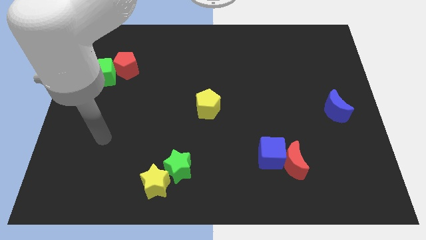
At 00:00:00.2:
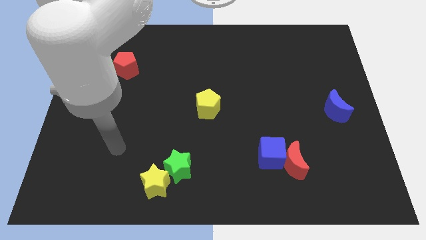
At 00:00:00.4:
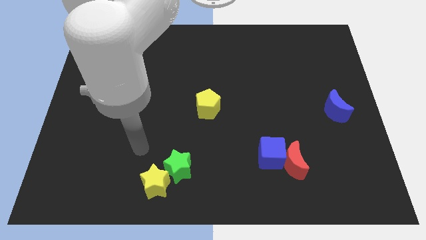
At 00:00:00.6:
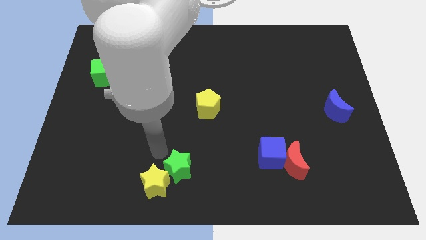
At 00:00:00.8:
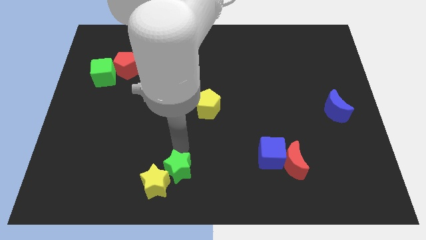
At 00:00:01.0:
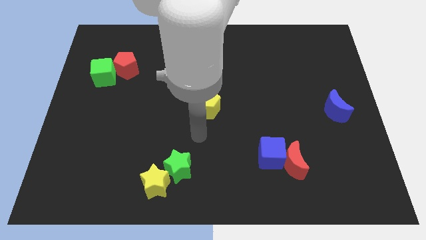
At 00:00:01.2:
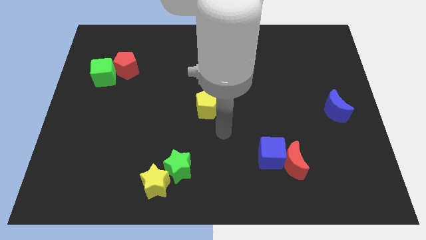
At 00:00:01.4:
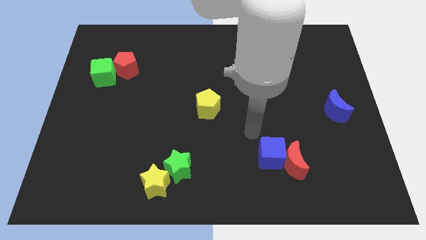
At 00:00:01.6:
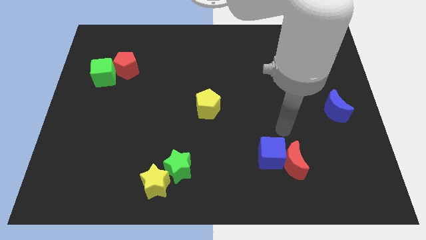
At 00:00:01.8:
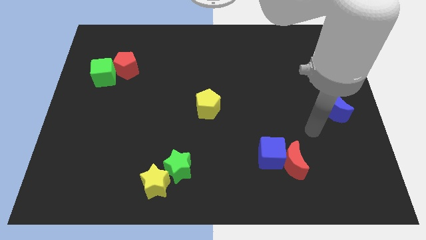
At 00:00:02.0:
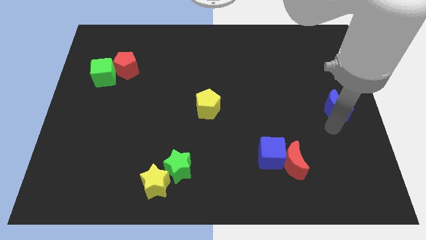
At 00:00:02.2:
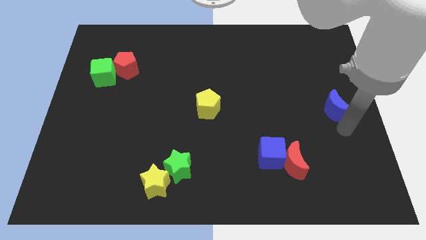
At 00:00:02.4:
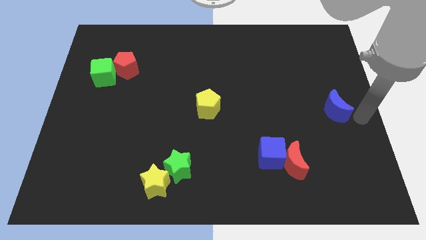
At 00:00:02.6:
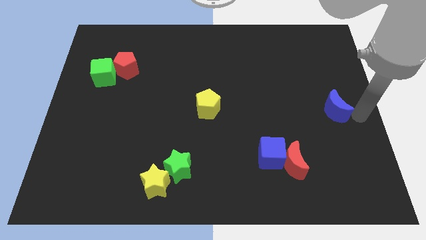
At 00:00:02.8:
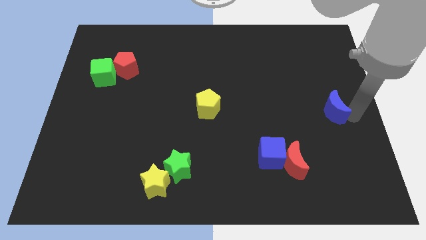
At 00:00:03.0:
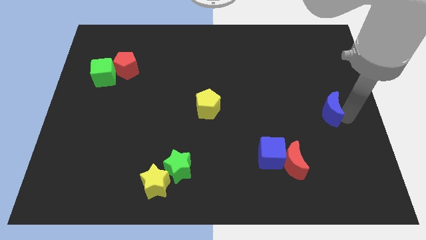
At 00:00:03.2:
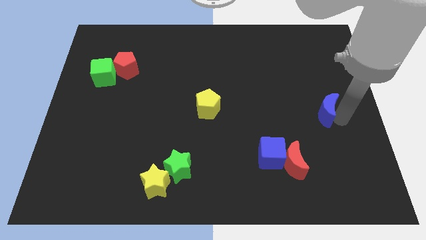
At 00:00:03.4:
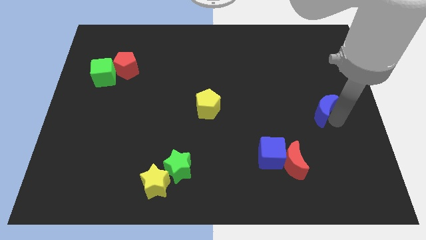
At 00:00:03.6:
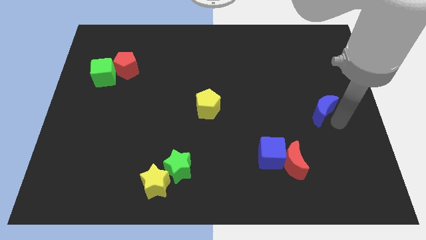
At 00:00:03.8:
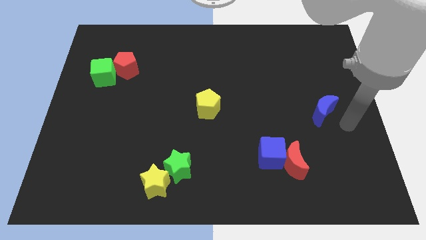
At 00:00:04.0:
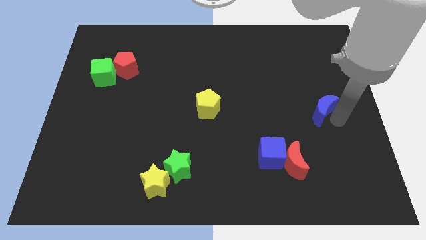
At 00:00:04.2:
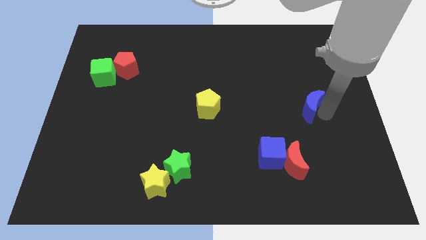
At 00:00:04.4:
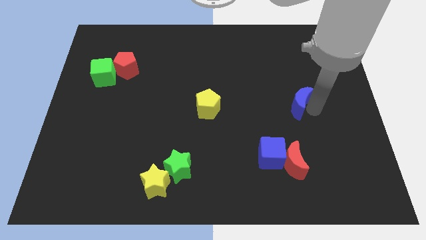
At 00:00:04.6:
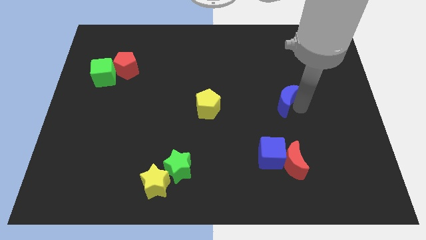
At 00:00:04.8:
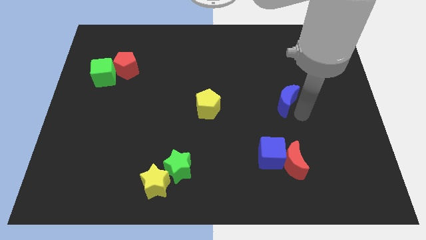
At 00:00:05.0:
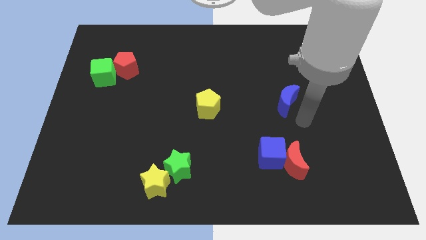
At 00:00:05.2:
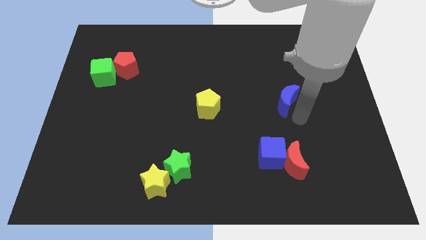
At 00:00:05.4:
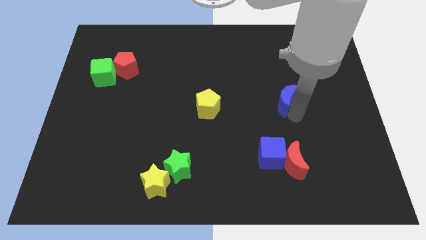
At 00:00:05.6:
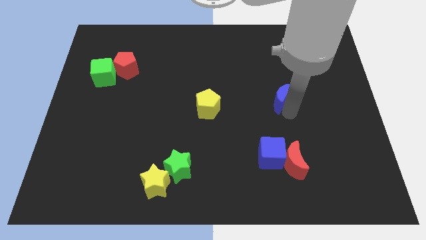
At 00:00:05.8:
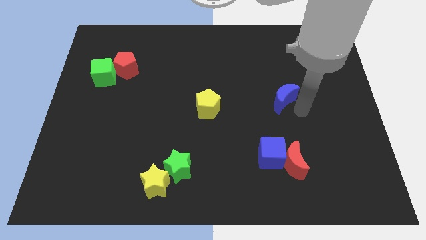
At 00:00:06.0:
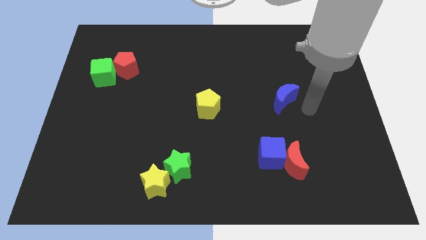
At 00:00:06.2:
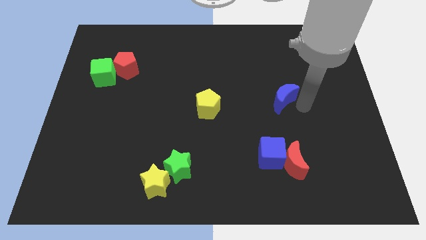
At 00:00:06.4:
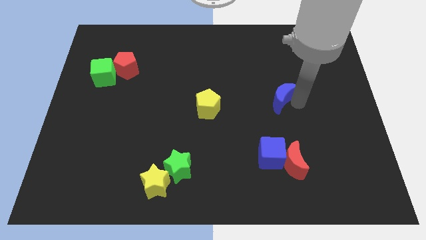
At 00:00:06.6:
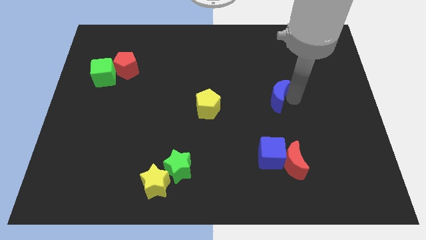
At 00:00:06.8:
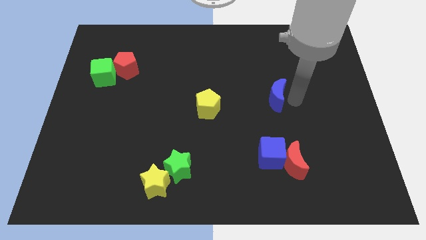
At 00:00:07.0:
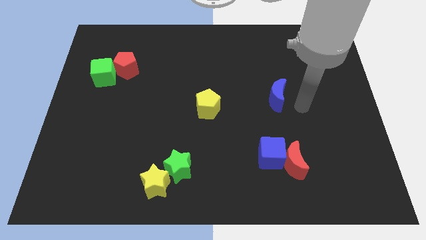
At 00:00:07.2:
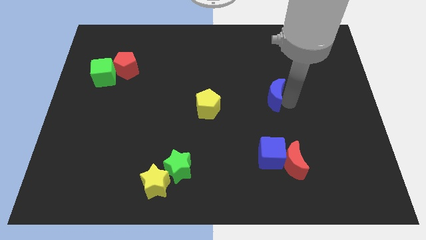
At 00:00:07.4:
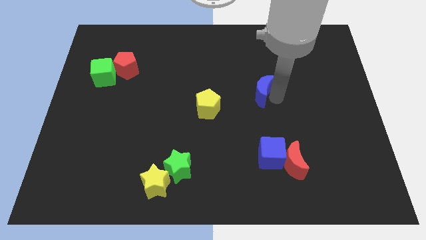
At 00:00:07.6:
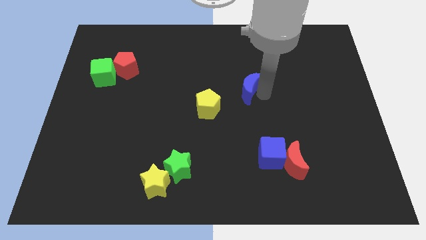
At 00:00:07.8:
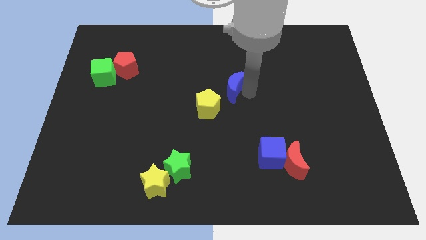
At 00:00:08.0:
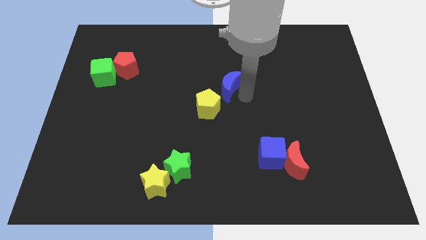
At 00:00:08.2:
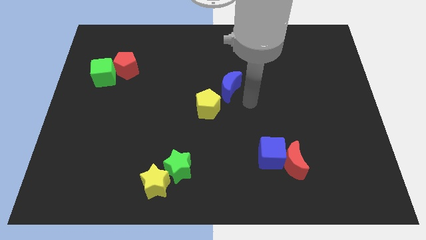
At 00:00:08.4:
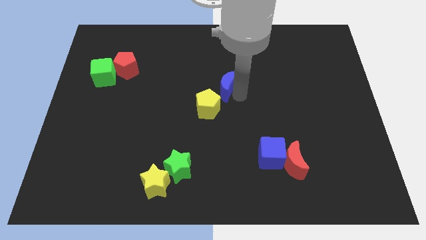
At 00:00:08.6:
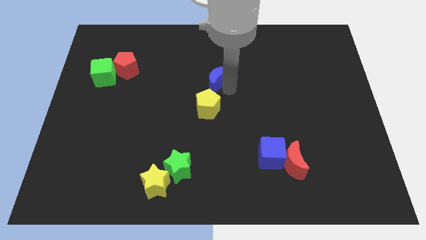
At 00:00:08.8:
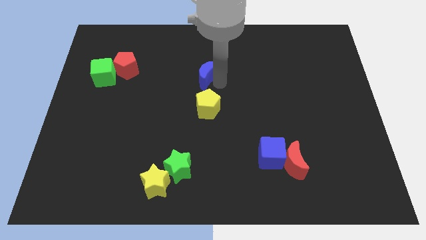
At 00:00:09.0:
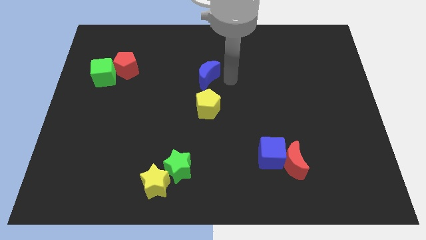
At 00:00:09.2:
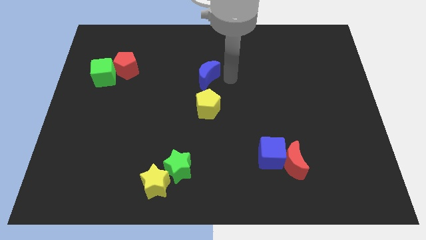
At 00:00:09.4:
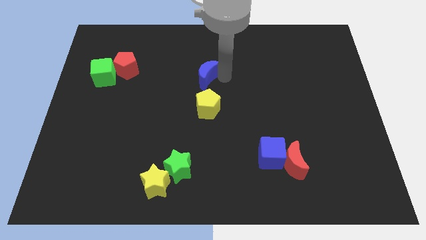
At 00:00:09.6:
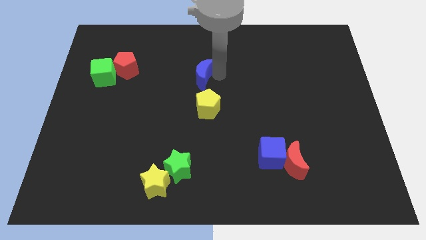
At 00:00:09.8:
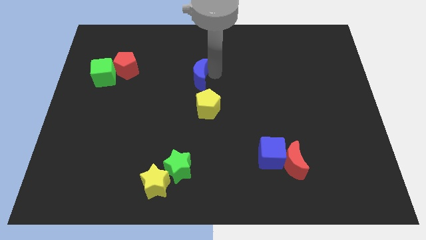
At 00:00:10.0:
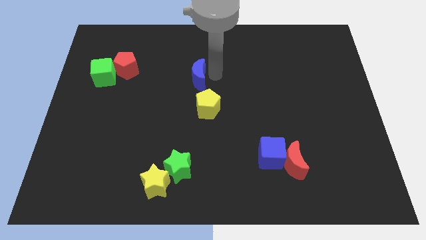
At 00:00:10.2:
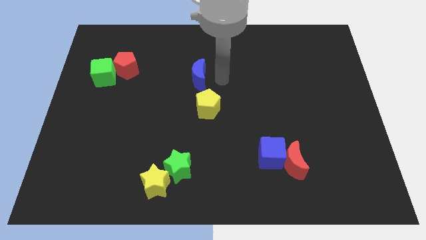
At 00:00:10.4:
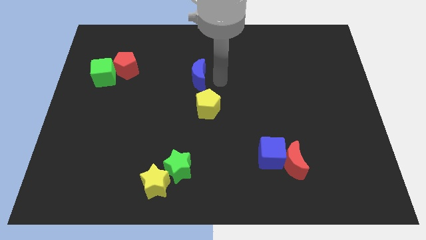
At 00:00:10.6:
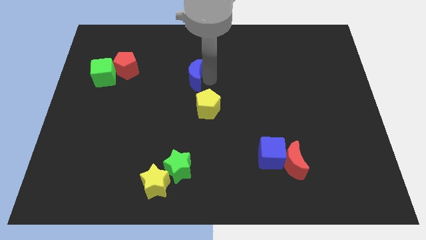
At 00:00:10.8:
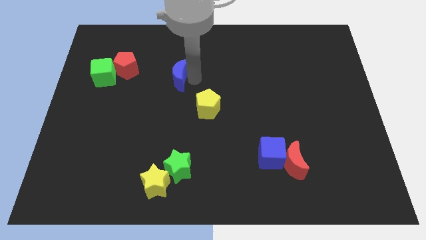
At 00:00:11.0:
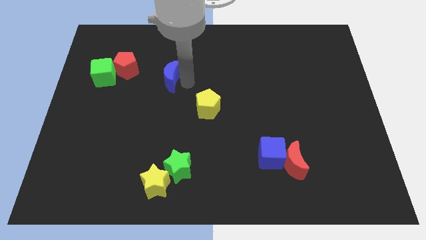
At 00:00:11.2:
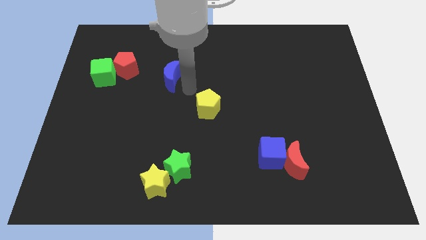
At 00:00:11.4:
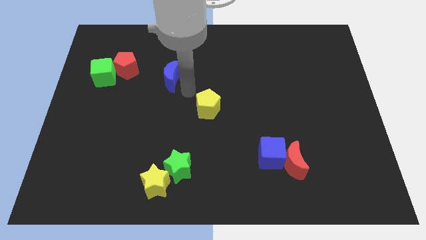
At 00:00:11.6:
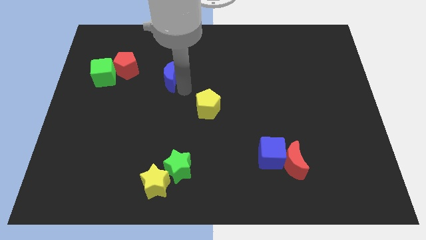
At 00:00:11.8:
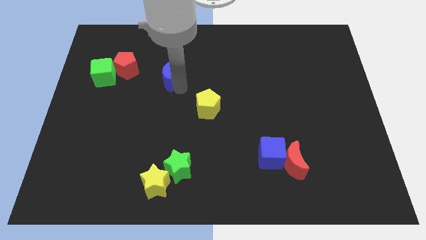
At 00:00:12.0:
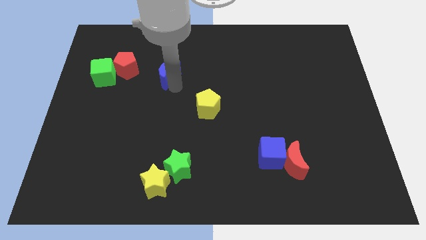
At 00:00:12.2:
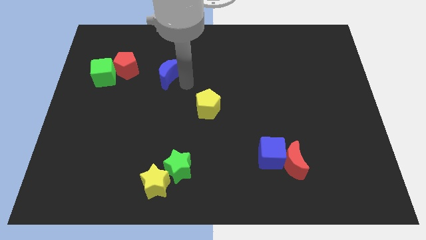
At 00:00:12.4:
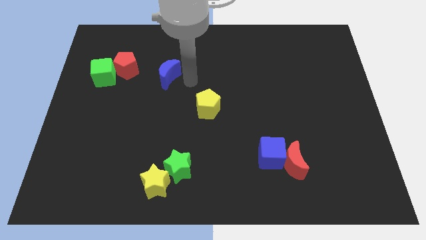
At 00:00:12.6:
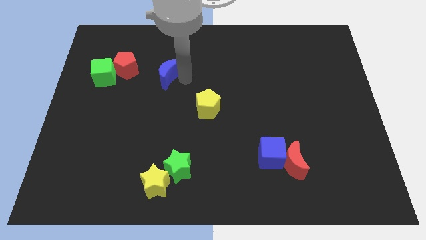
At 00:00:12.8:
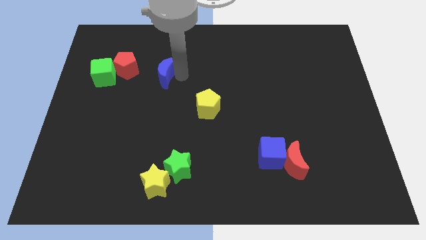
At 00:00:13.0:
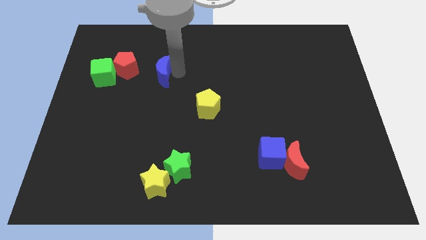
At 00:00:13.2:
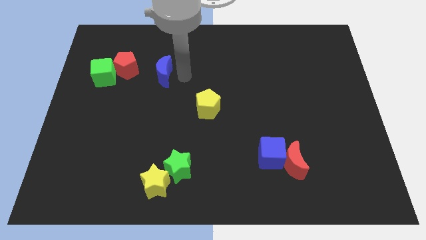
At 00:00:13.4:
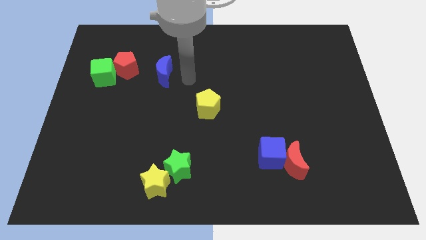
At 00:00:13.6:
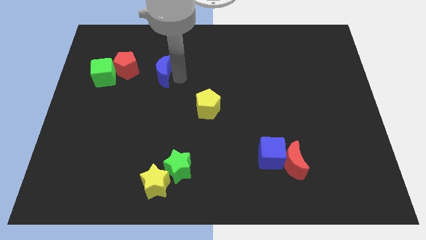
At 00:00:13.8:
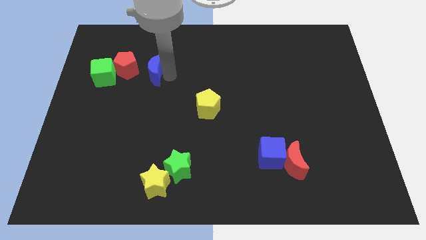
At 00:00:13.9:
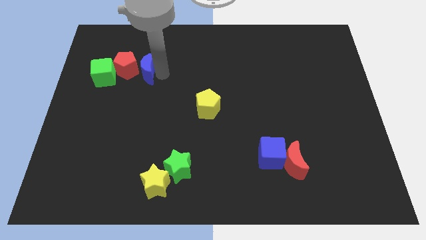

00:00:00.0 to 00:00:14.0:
push the blue moon towards the red pentagon
